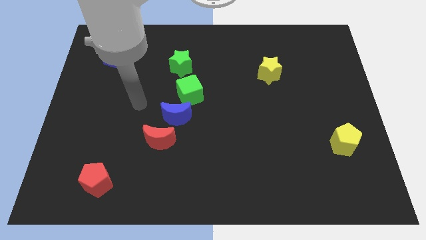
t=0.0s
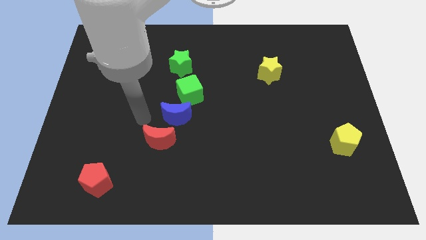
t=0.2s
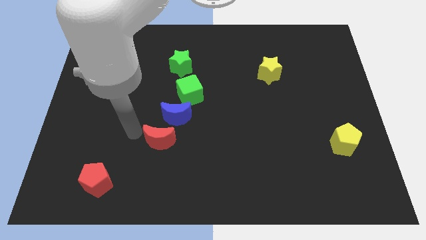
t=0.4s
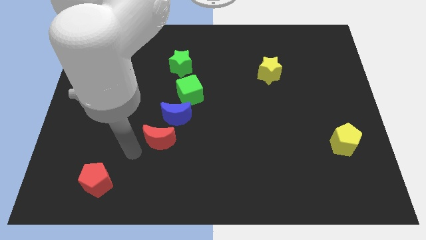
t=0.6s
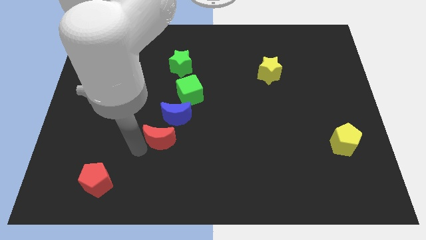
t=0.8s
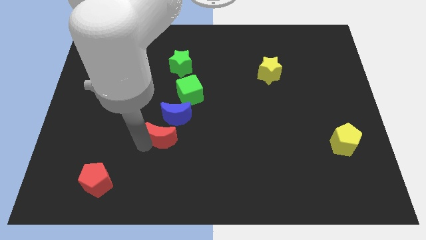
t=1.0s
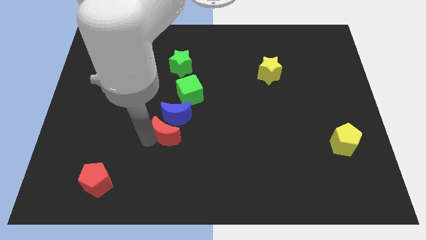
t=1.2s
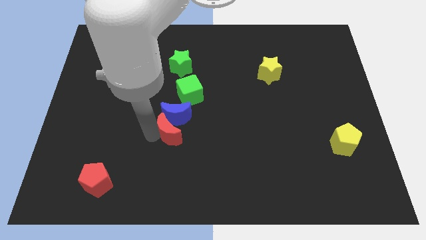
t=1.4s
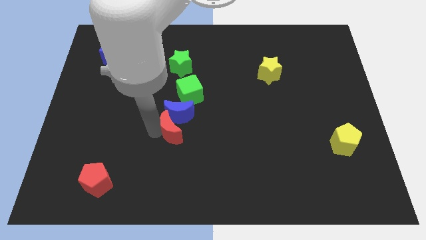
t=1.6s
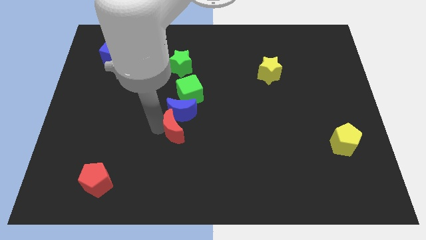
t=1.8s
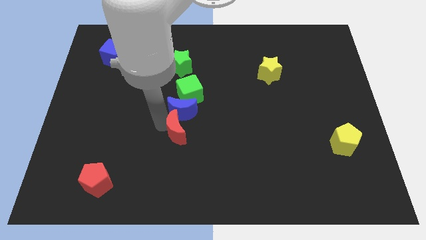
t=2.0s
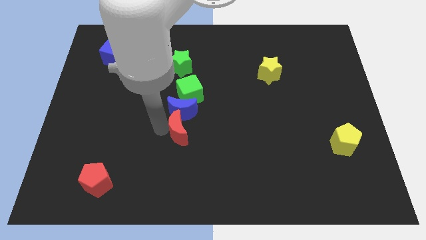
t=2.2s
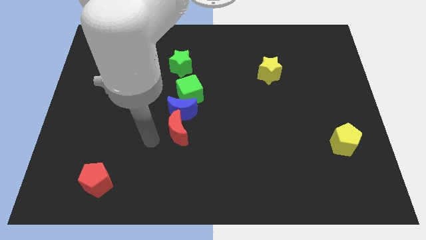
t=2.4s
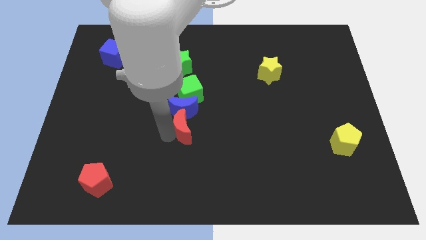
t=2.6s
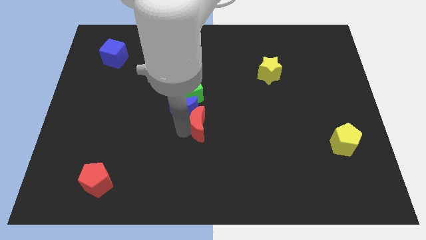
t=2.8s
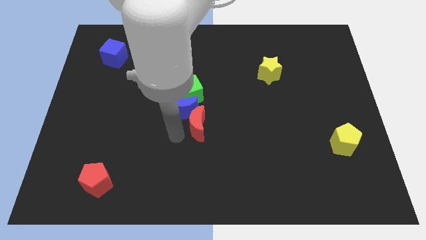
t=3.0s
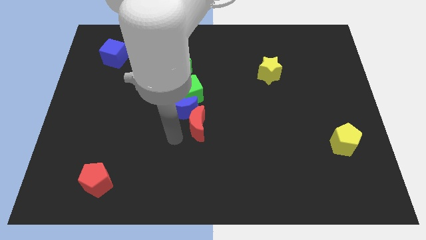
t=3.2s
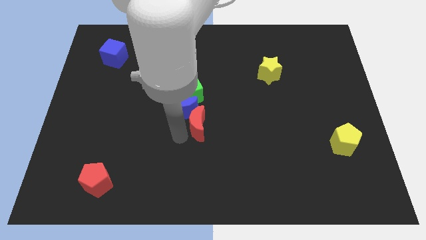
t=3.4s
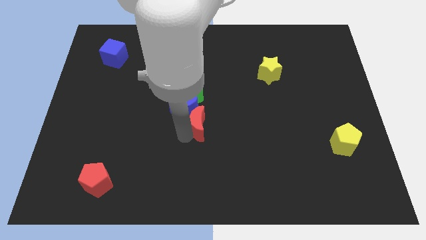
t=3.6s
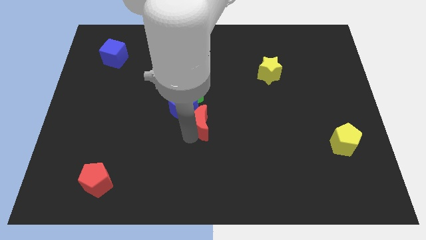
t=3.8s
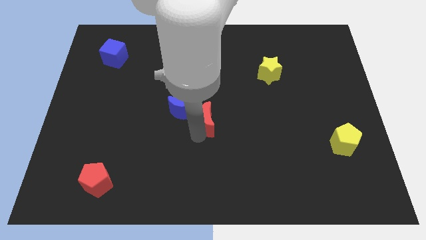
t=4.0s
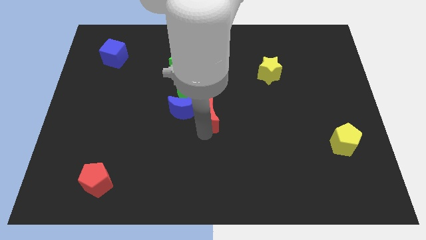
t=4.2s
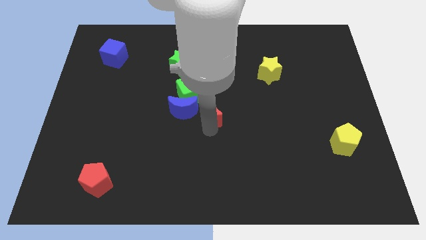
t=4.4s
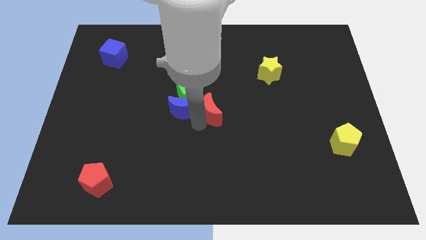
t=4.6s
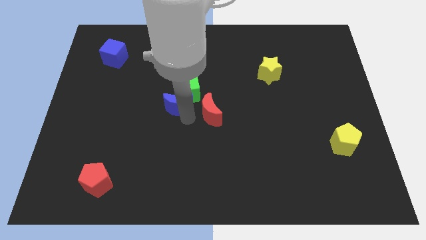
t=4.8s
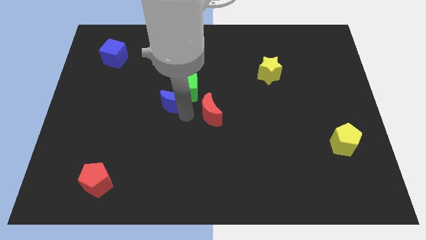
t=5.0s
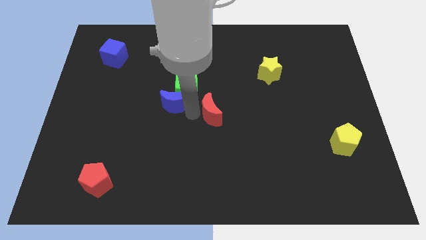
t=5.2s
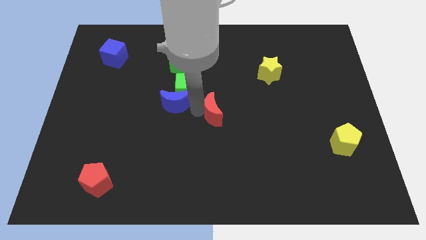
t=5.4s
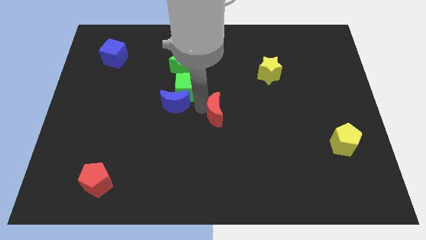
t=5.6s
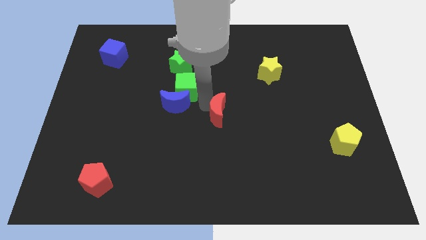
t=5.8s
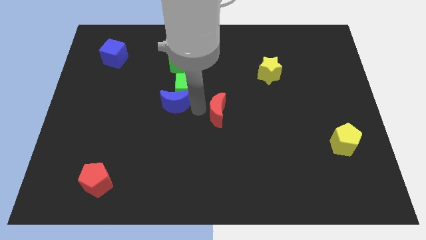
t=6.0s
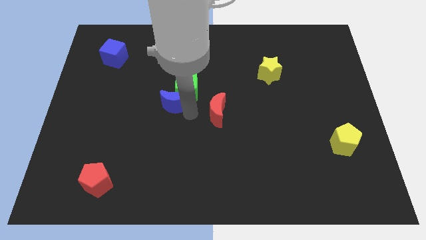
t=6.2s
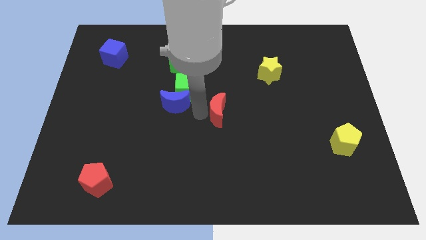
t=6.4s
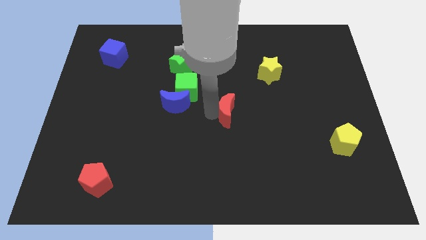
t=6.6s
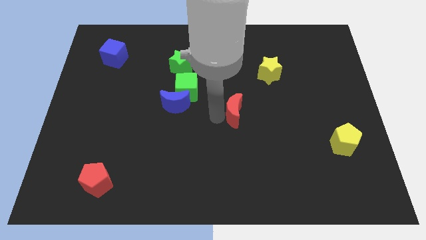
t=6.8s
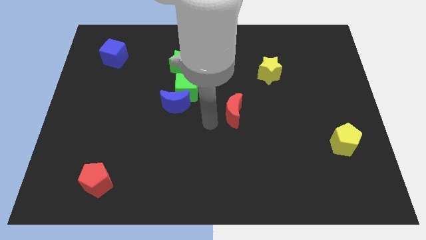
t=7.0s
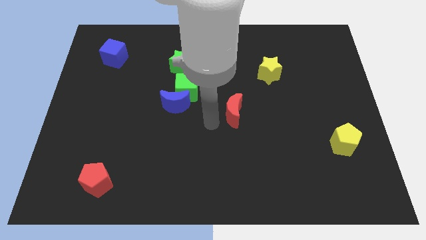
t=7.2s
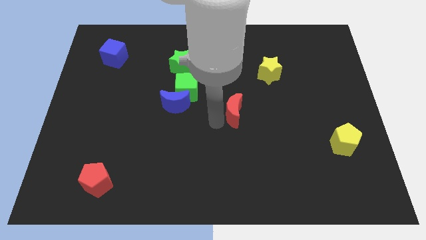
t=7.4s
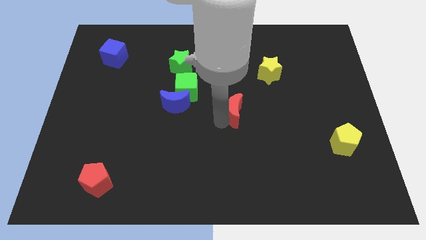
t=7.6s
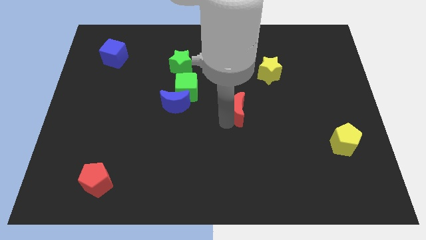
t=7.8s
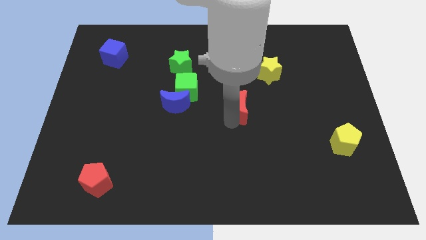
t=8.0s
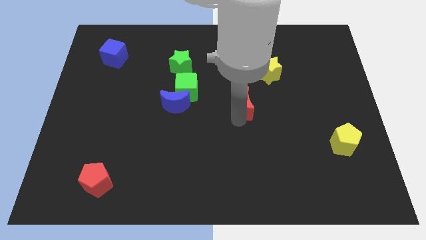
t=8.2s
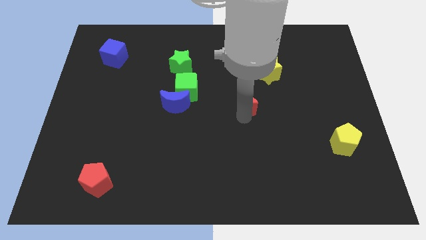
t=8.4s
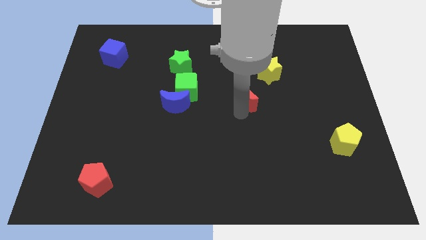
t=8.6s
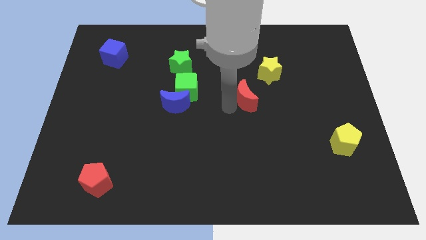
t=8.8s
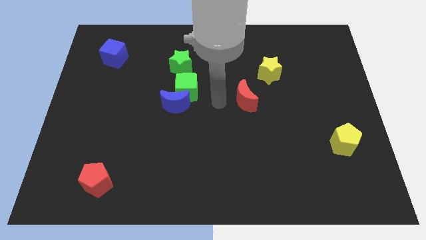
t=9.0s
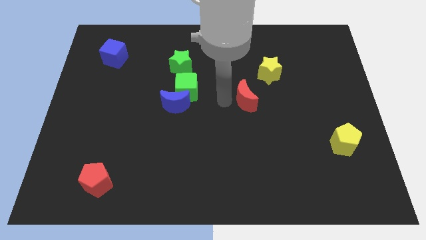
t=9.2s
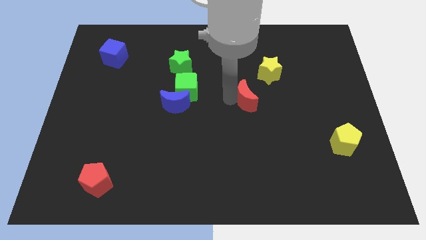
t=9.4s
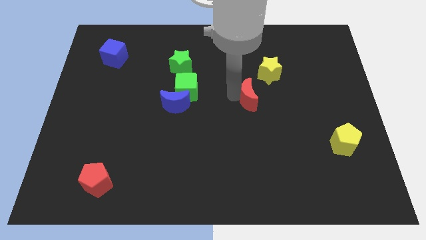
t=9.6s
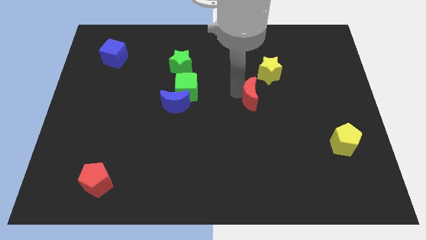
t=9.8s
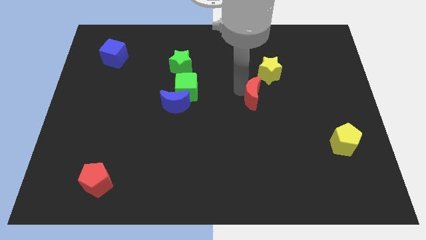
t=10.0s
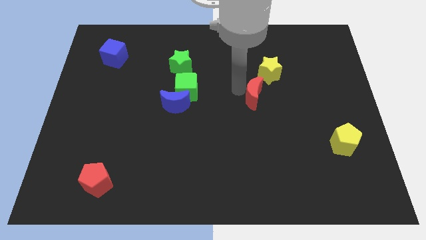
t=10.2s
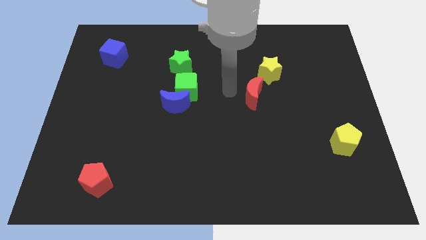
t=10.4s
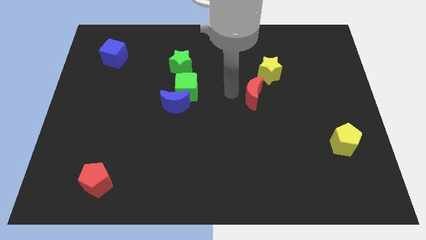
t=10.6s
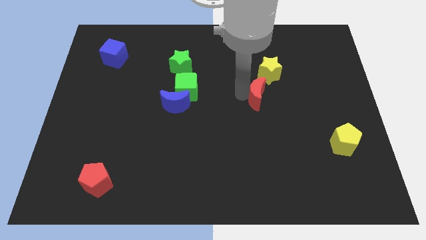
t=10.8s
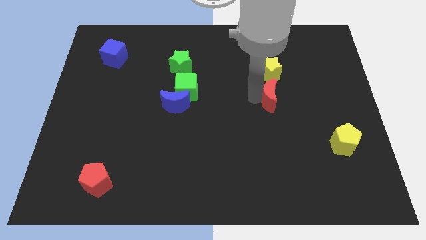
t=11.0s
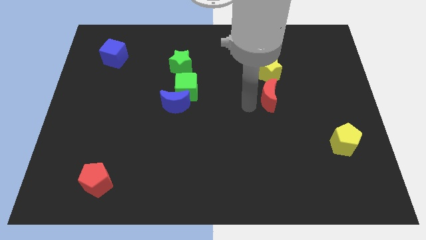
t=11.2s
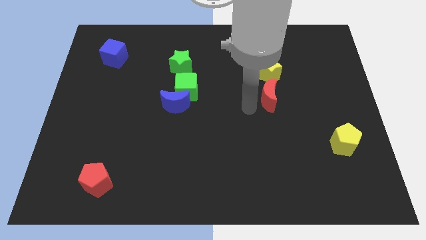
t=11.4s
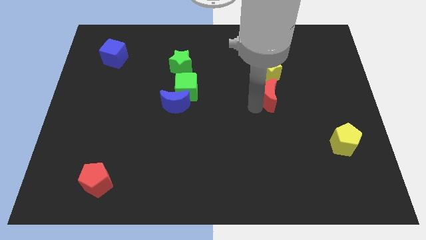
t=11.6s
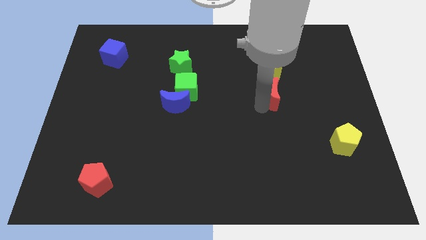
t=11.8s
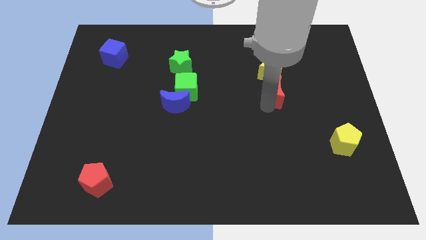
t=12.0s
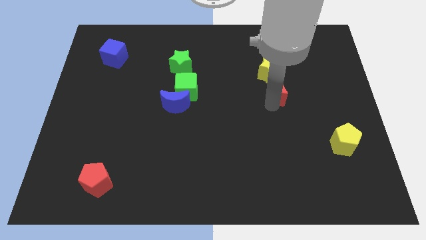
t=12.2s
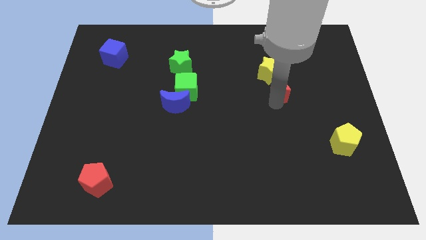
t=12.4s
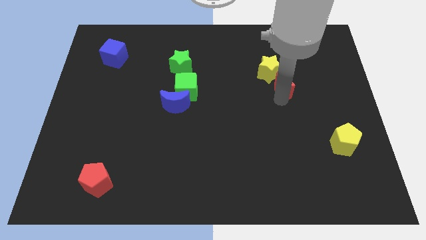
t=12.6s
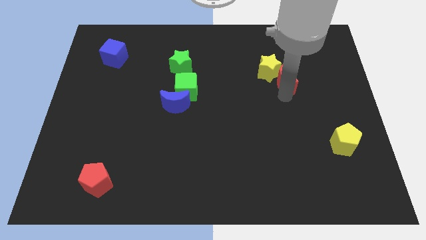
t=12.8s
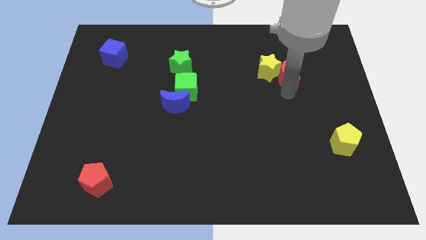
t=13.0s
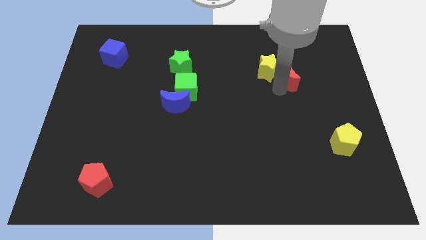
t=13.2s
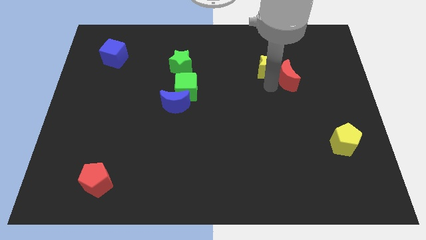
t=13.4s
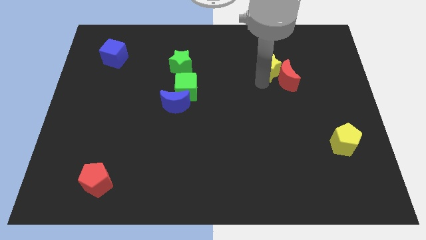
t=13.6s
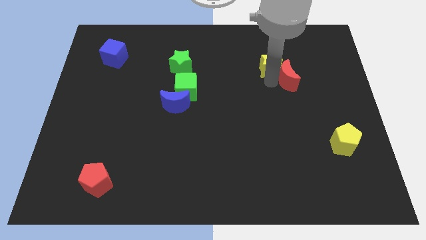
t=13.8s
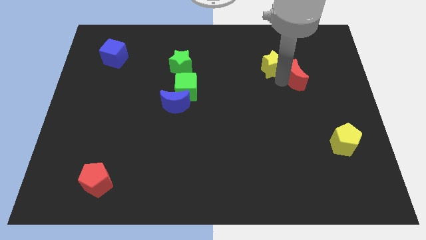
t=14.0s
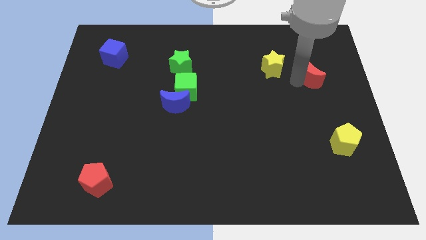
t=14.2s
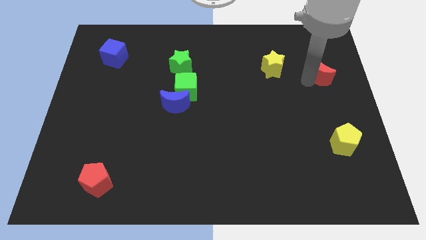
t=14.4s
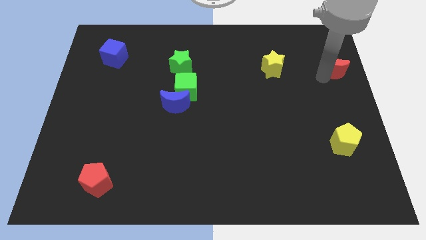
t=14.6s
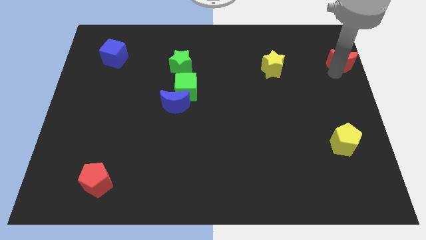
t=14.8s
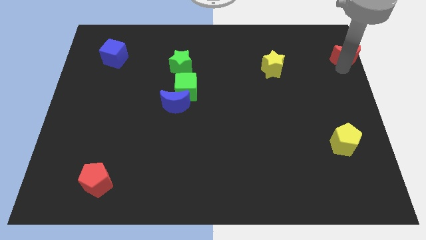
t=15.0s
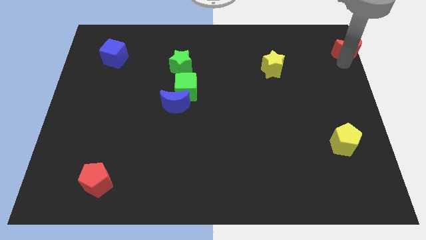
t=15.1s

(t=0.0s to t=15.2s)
slide the red moon to the top right
